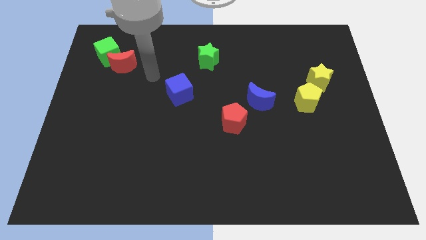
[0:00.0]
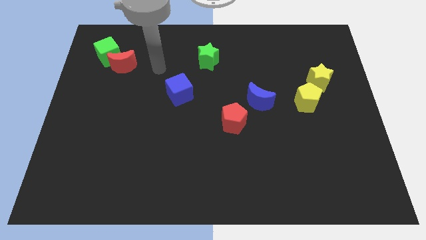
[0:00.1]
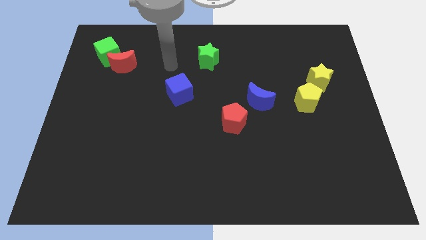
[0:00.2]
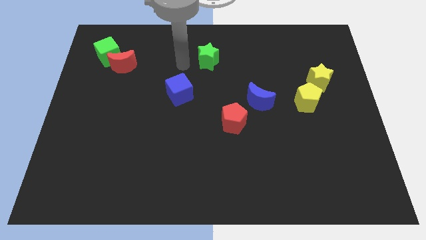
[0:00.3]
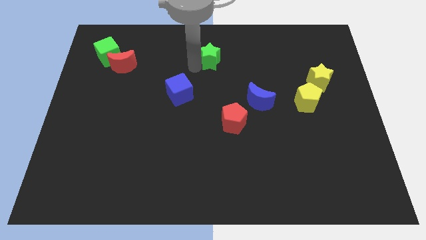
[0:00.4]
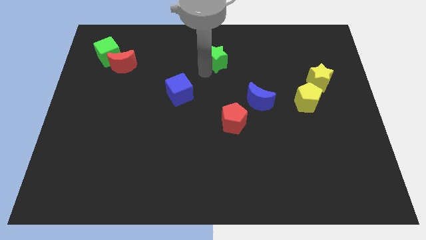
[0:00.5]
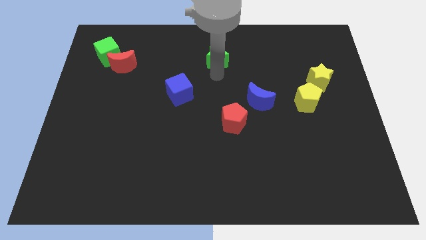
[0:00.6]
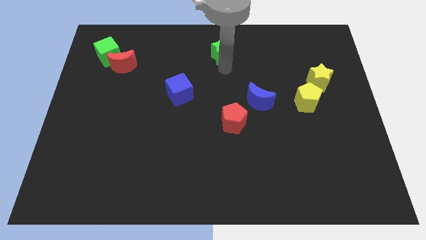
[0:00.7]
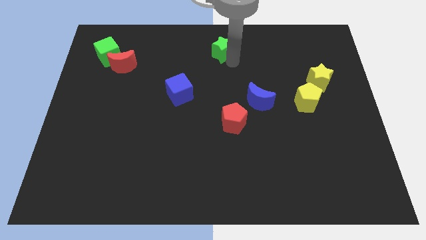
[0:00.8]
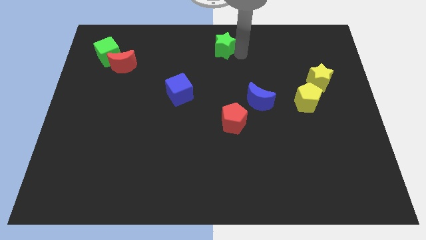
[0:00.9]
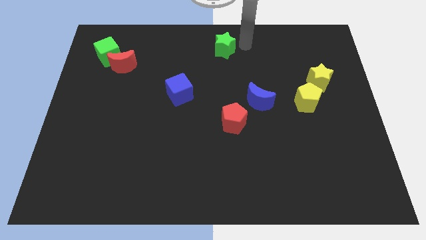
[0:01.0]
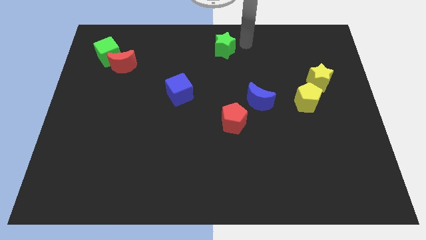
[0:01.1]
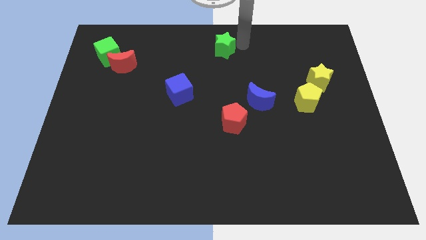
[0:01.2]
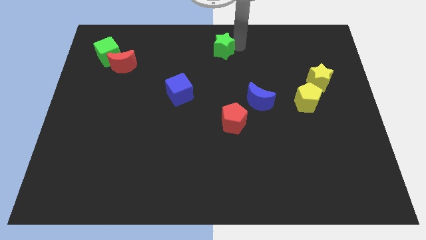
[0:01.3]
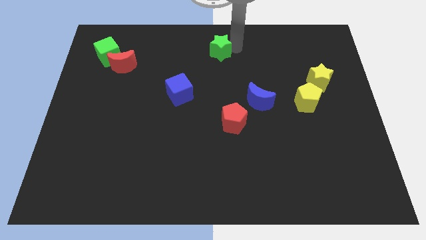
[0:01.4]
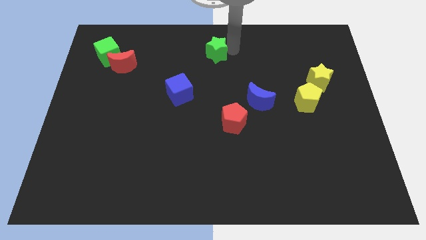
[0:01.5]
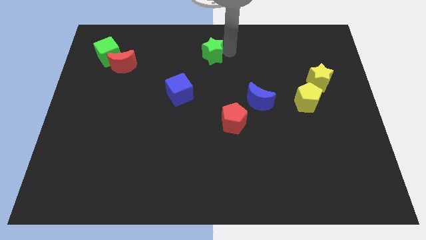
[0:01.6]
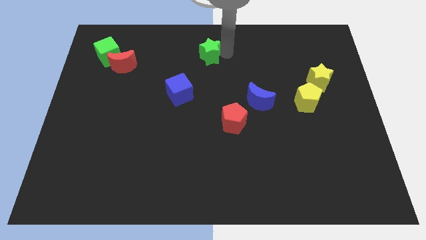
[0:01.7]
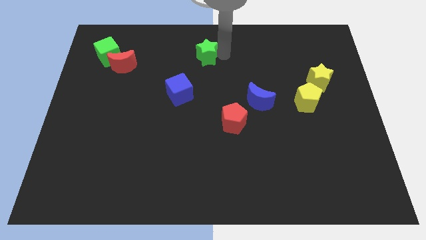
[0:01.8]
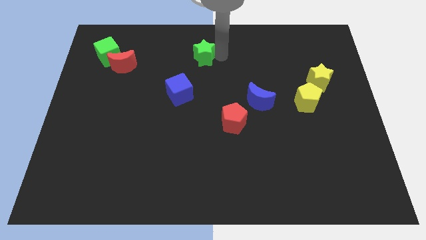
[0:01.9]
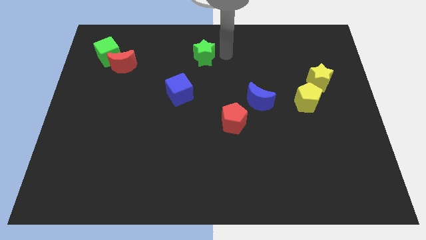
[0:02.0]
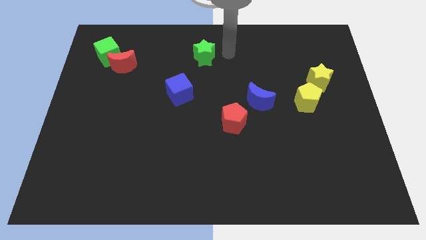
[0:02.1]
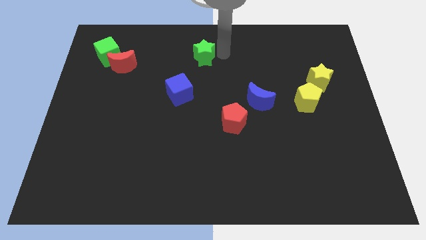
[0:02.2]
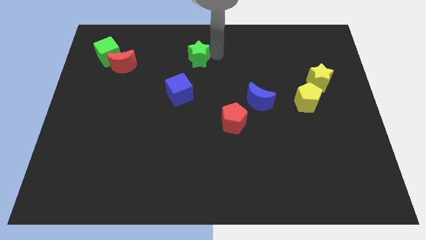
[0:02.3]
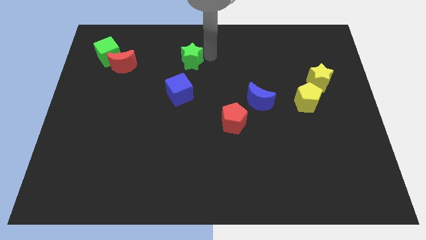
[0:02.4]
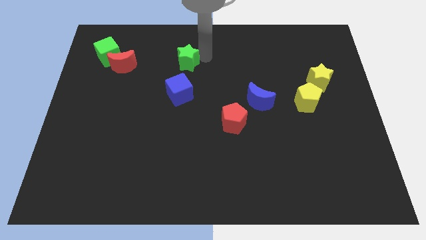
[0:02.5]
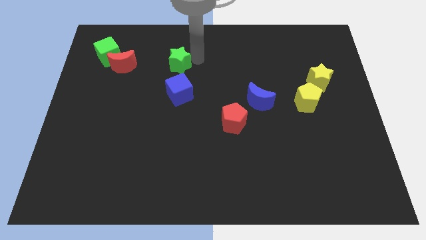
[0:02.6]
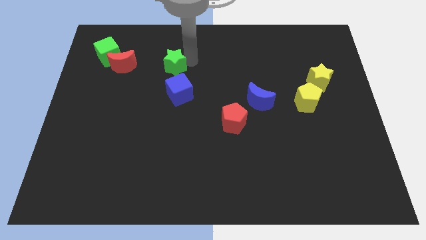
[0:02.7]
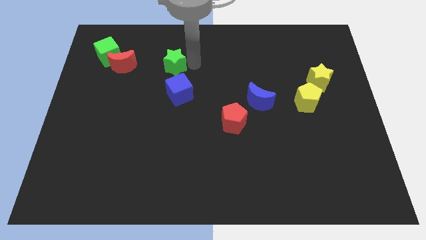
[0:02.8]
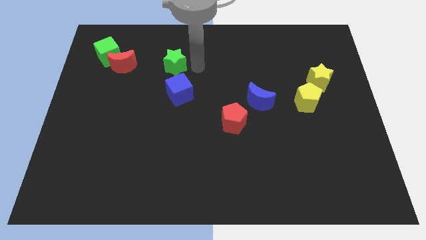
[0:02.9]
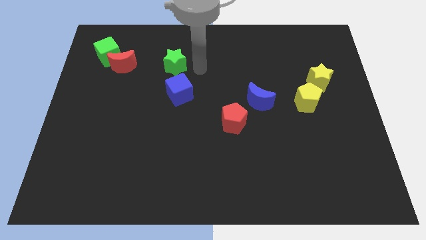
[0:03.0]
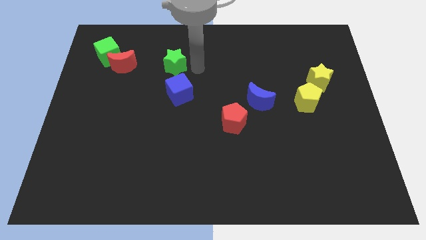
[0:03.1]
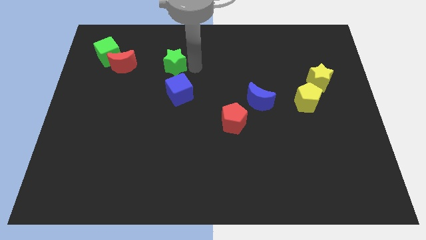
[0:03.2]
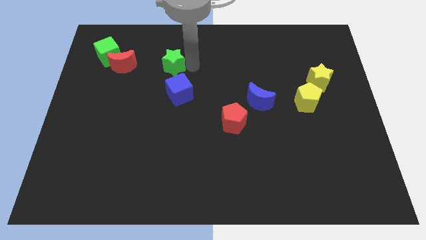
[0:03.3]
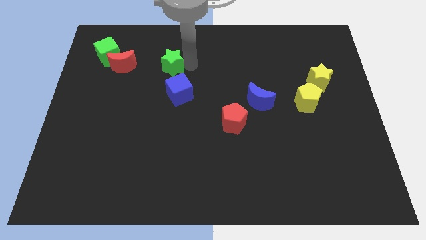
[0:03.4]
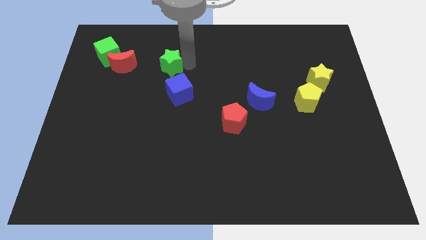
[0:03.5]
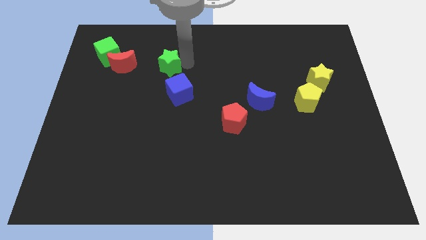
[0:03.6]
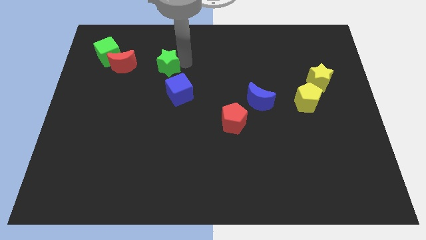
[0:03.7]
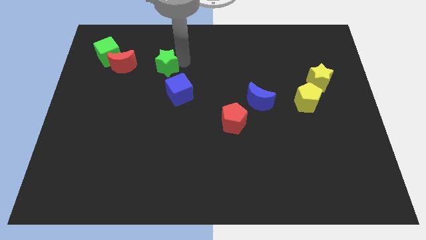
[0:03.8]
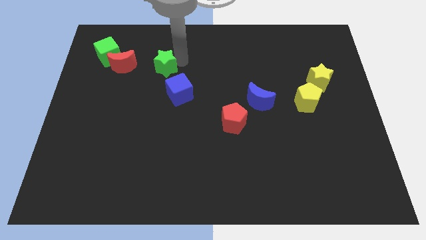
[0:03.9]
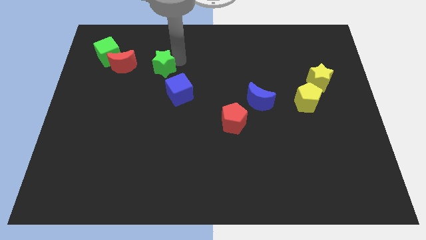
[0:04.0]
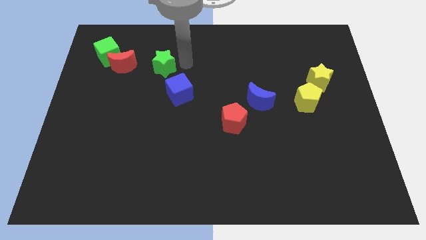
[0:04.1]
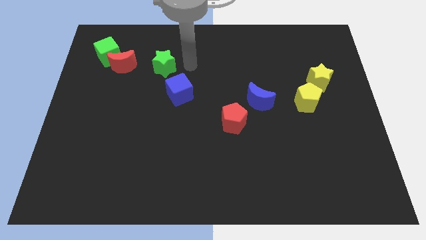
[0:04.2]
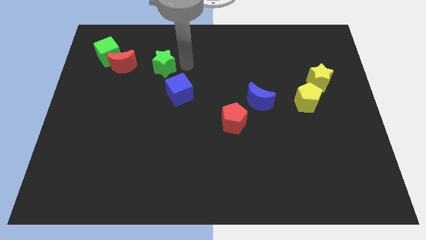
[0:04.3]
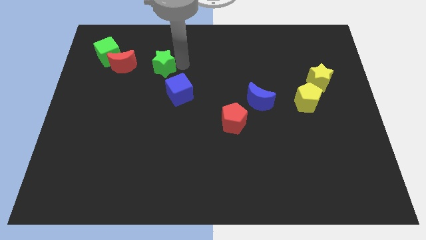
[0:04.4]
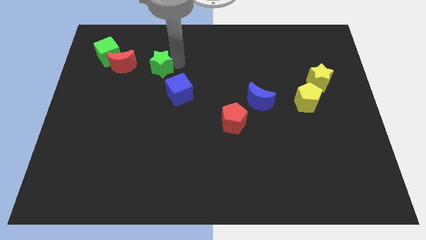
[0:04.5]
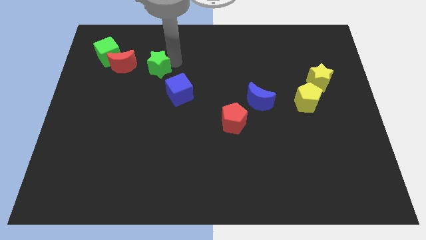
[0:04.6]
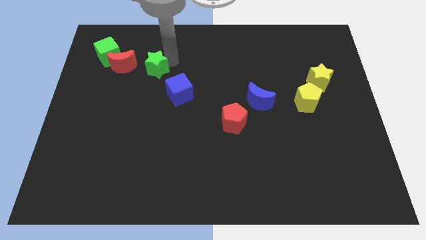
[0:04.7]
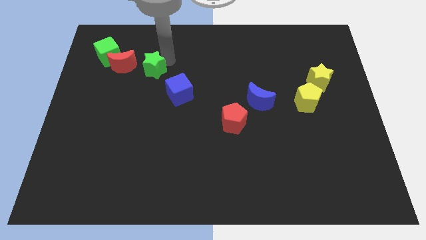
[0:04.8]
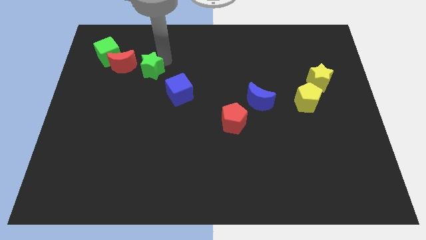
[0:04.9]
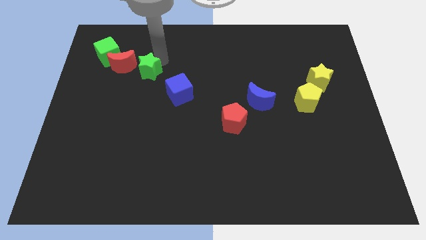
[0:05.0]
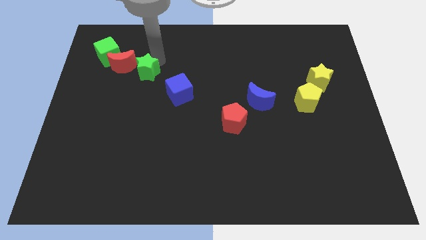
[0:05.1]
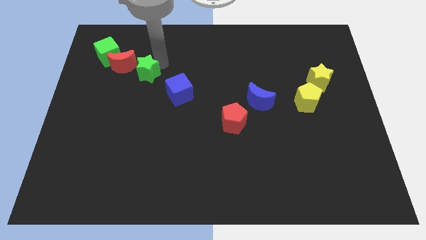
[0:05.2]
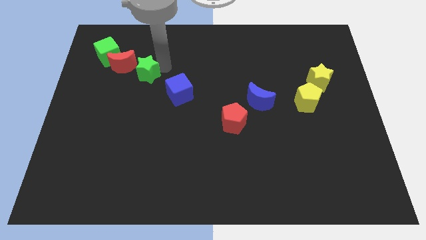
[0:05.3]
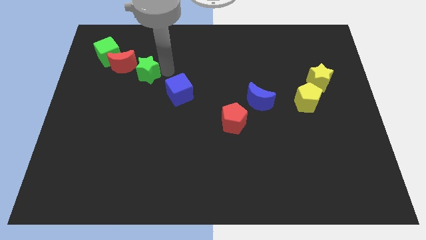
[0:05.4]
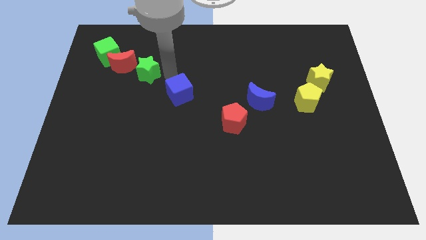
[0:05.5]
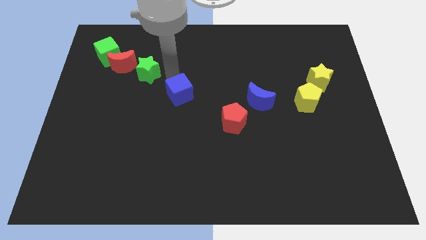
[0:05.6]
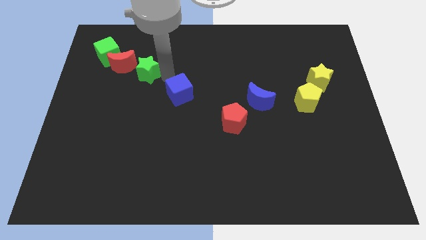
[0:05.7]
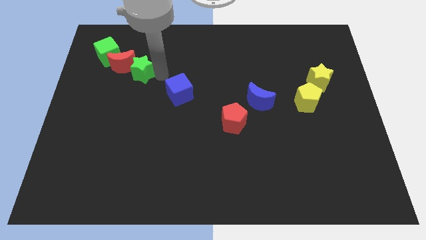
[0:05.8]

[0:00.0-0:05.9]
move the green star to the red moon

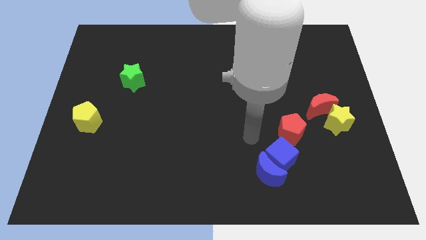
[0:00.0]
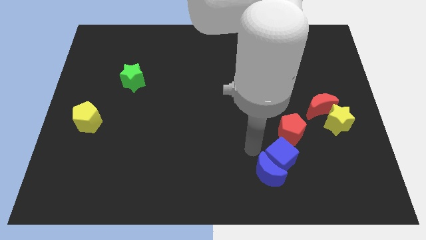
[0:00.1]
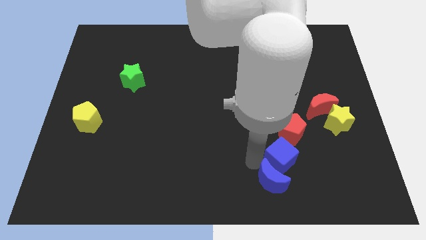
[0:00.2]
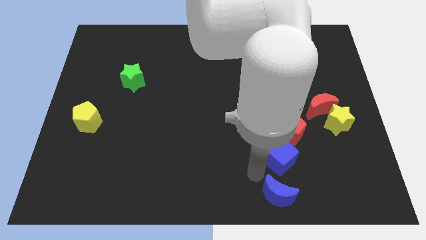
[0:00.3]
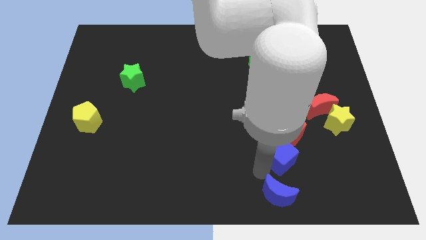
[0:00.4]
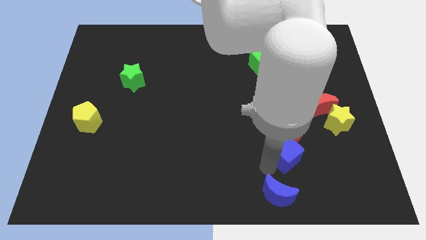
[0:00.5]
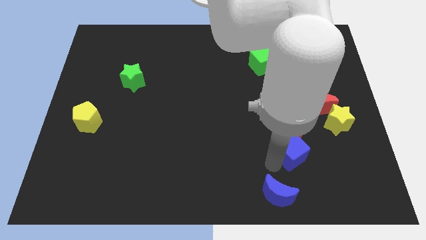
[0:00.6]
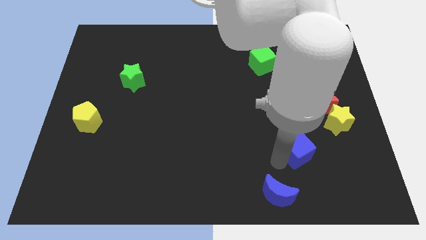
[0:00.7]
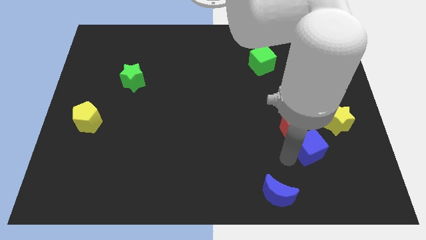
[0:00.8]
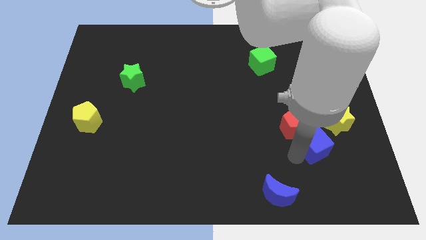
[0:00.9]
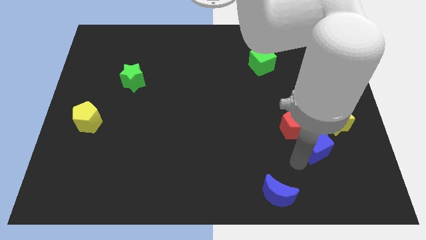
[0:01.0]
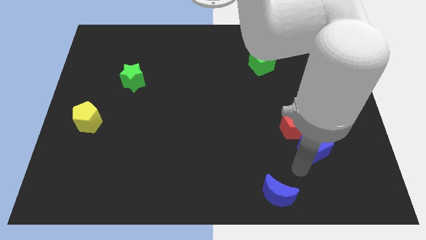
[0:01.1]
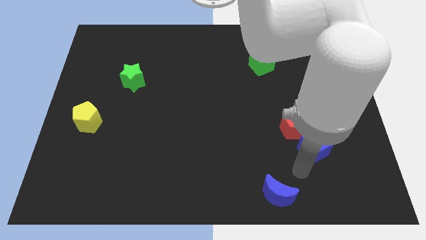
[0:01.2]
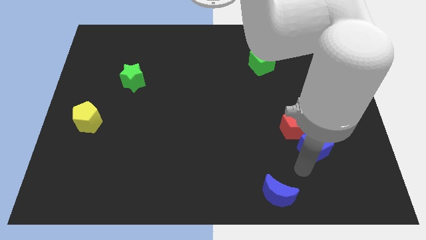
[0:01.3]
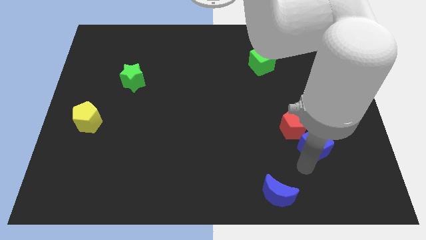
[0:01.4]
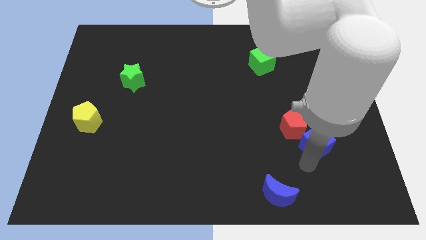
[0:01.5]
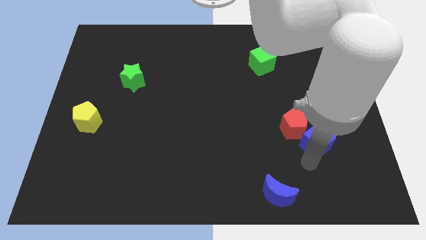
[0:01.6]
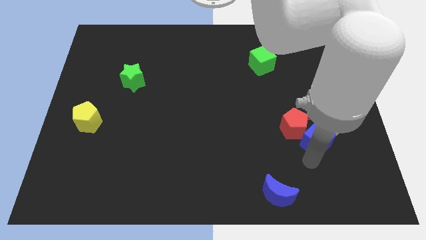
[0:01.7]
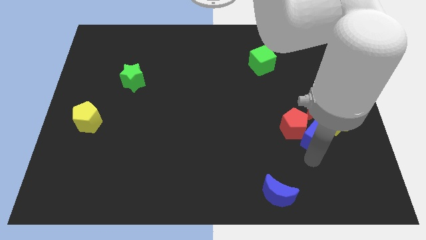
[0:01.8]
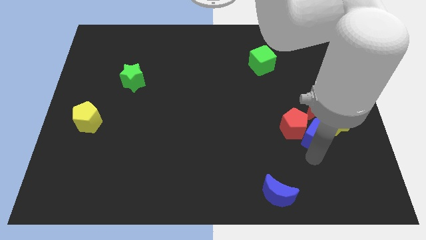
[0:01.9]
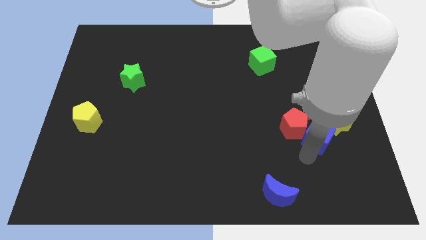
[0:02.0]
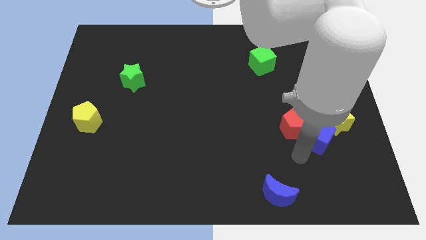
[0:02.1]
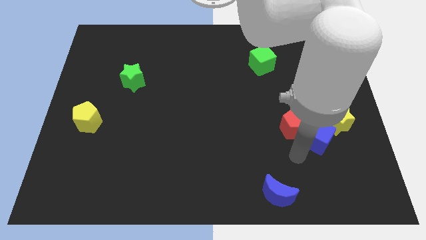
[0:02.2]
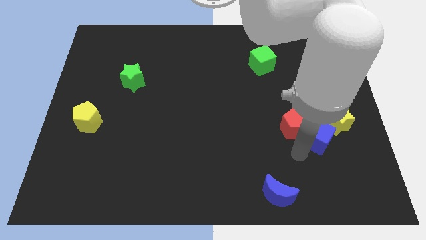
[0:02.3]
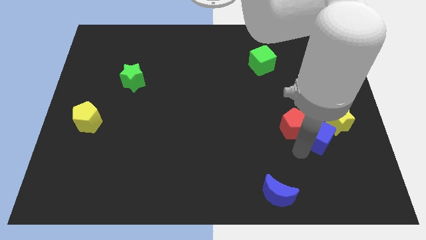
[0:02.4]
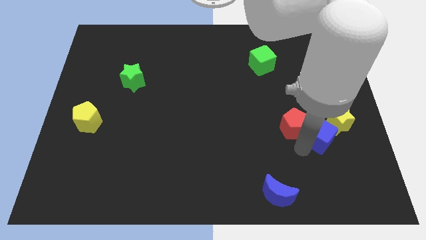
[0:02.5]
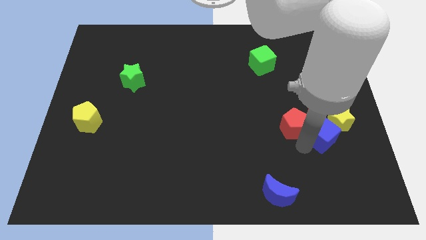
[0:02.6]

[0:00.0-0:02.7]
put the blue cube next to the yellow star
